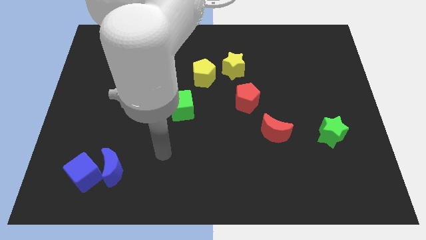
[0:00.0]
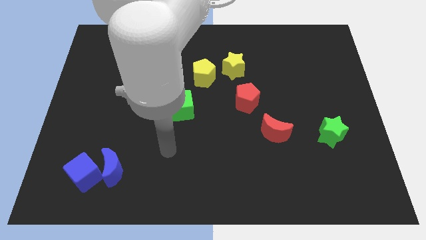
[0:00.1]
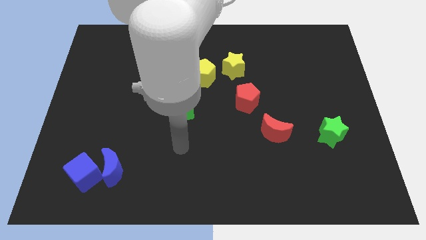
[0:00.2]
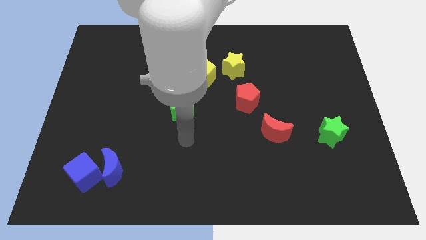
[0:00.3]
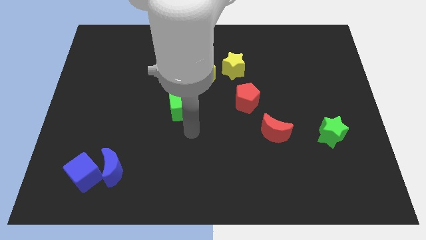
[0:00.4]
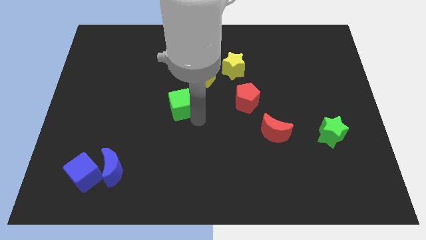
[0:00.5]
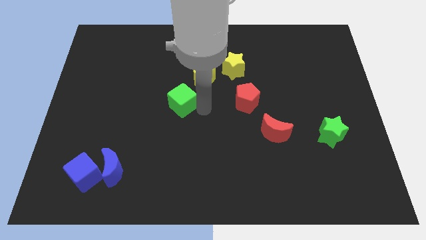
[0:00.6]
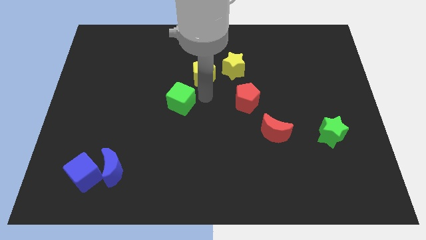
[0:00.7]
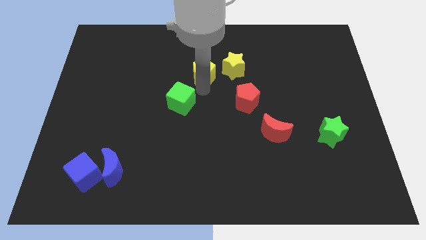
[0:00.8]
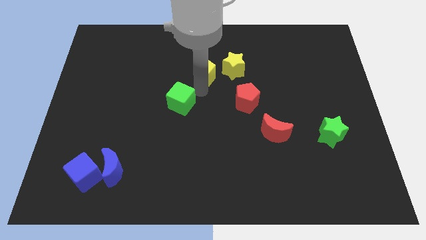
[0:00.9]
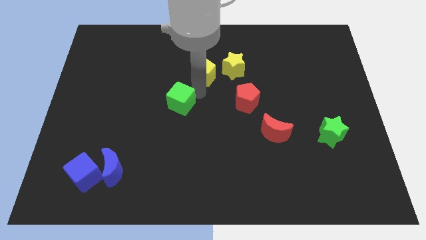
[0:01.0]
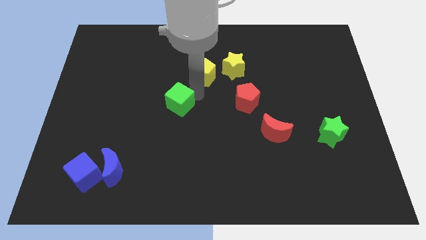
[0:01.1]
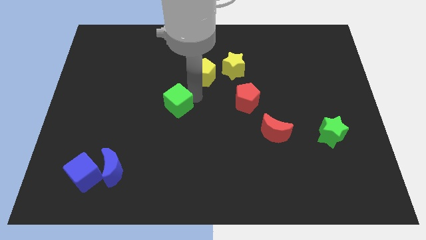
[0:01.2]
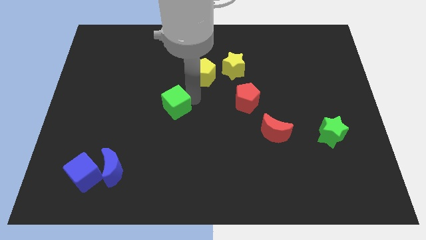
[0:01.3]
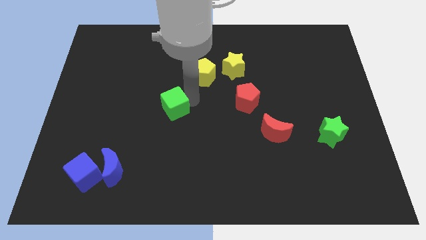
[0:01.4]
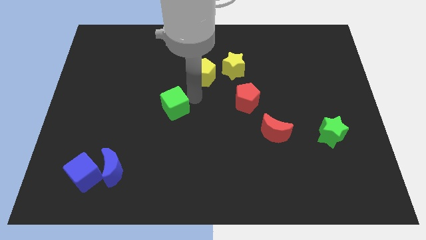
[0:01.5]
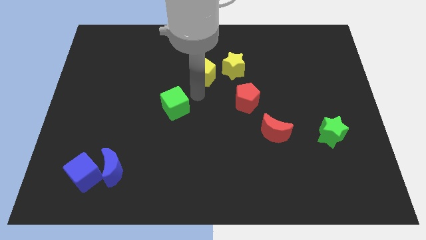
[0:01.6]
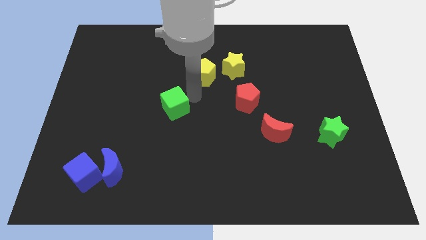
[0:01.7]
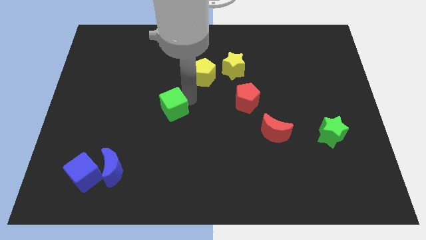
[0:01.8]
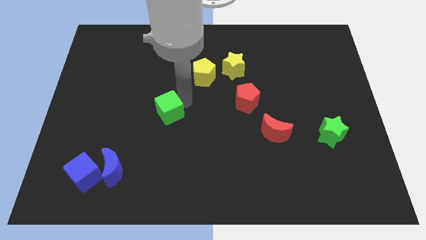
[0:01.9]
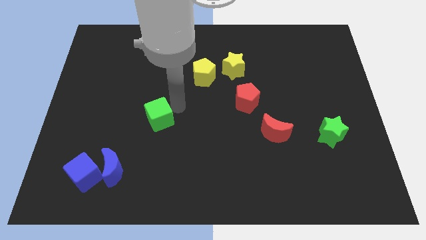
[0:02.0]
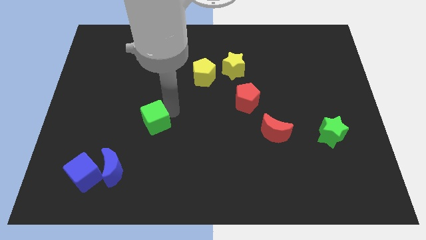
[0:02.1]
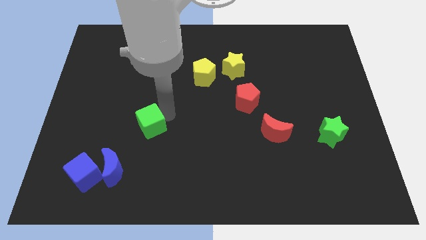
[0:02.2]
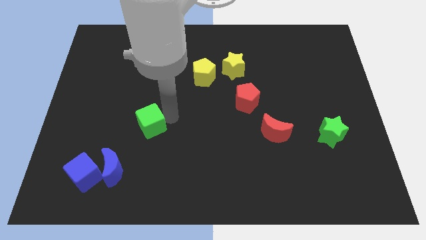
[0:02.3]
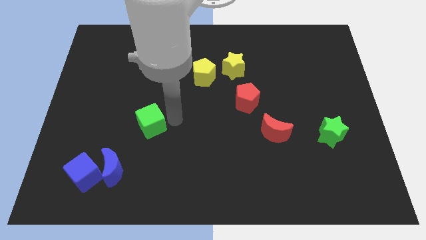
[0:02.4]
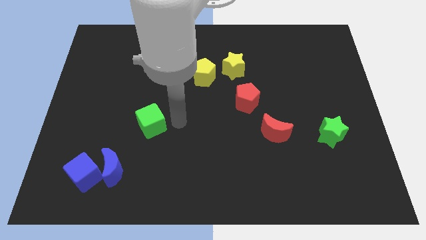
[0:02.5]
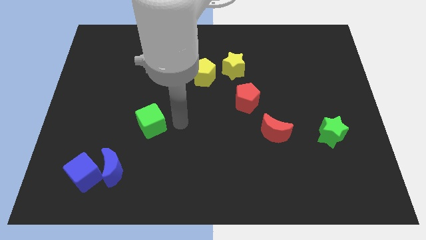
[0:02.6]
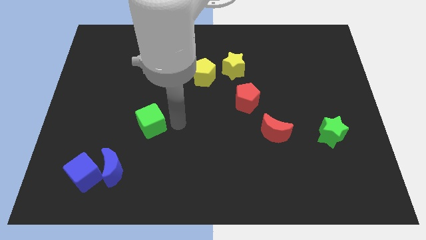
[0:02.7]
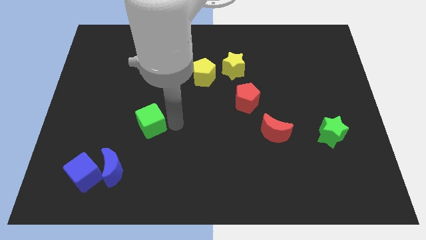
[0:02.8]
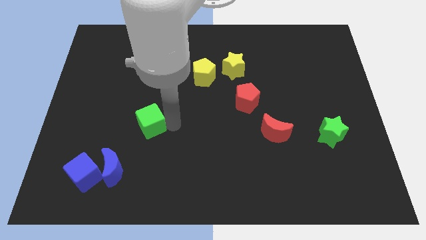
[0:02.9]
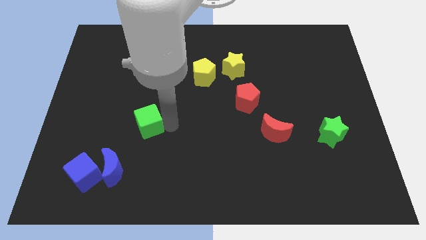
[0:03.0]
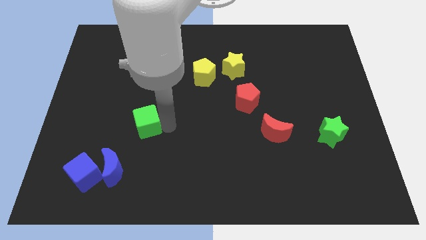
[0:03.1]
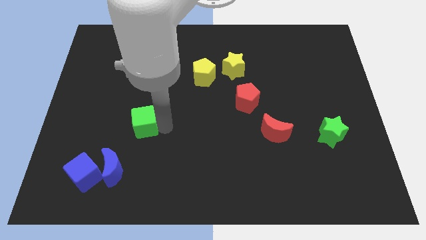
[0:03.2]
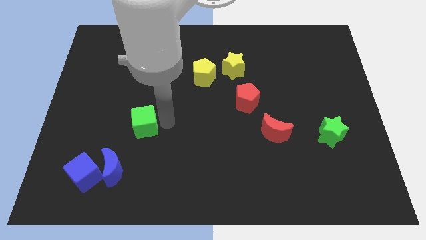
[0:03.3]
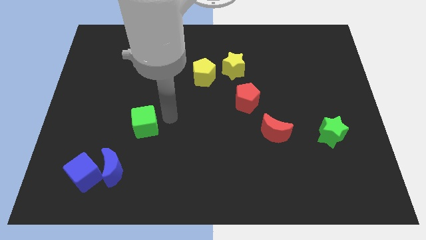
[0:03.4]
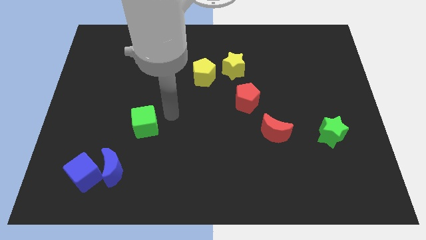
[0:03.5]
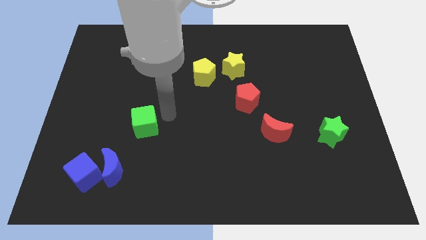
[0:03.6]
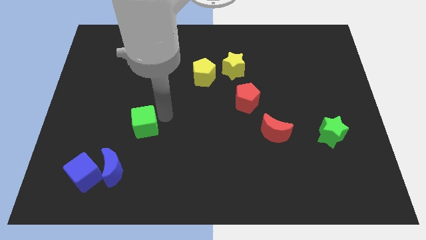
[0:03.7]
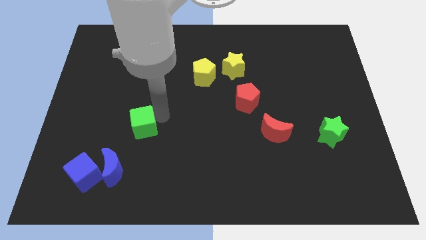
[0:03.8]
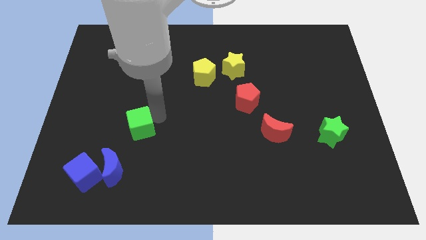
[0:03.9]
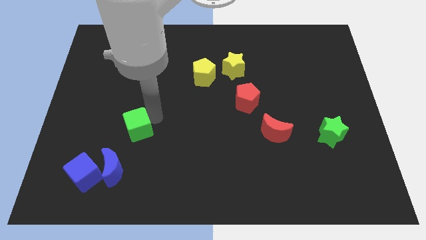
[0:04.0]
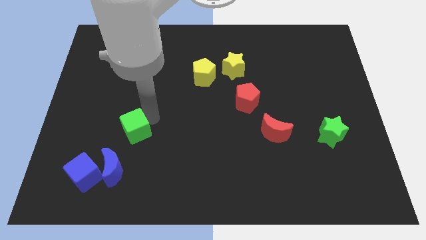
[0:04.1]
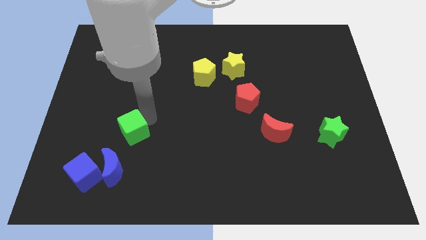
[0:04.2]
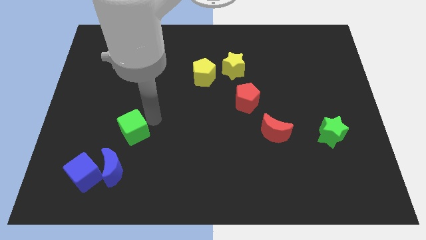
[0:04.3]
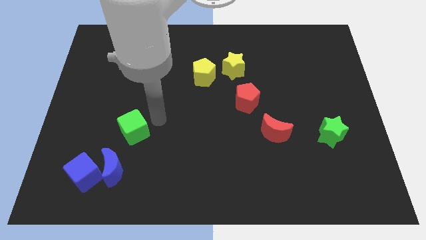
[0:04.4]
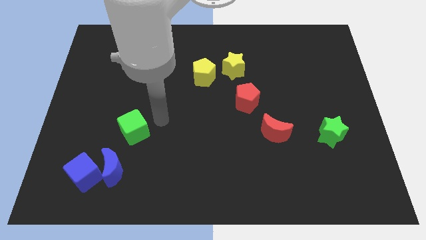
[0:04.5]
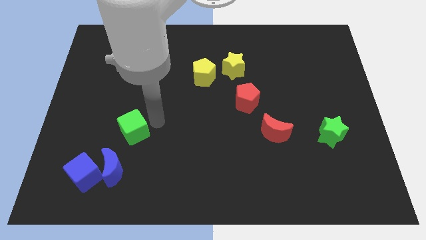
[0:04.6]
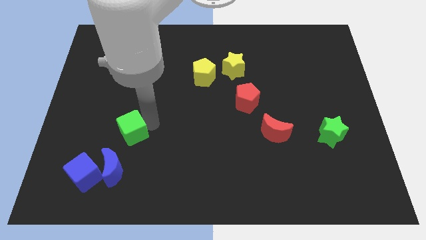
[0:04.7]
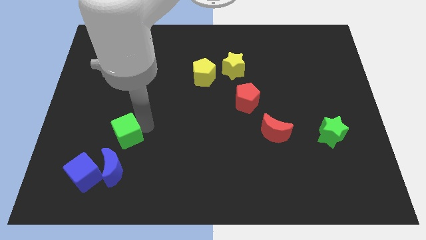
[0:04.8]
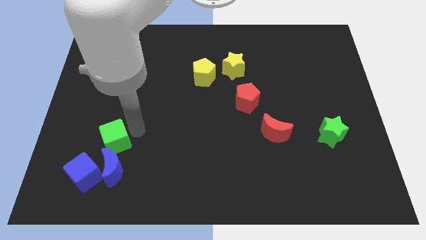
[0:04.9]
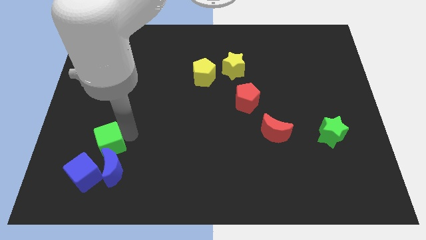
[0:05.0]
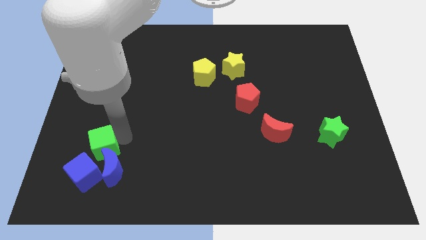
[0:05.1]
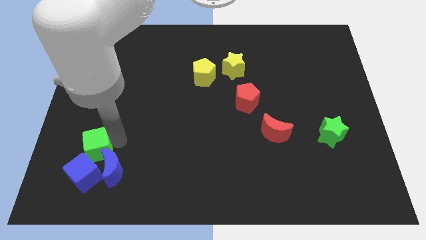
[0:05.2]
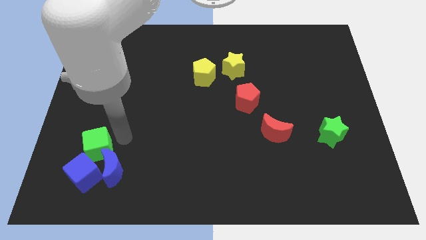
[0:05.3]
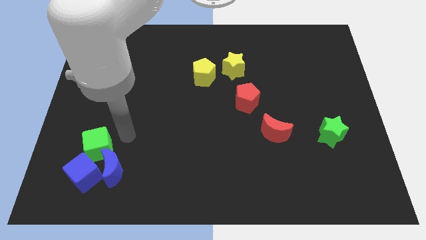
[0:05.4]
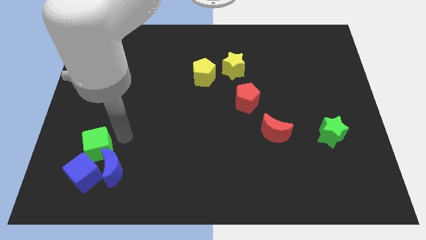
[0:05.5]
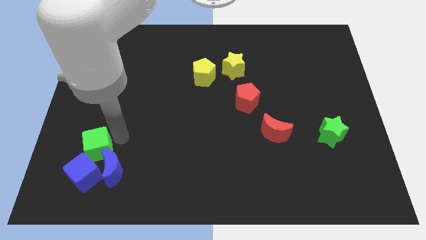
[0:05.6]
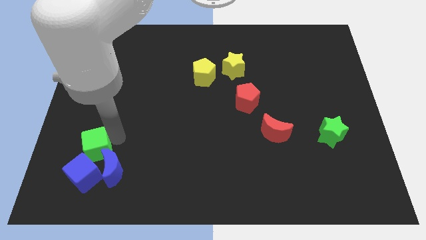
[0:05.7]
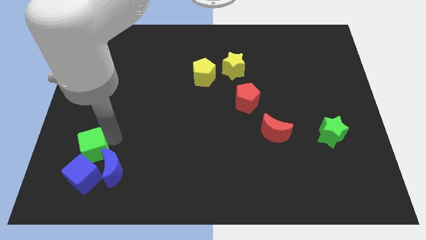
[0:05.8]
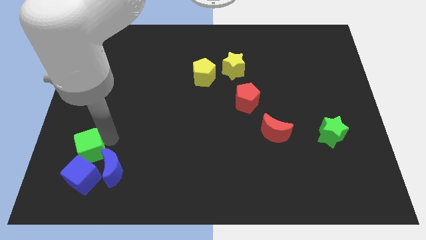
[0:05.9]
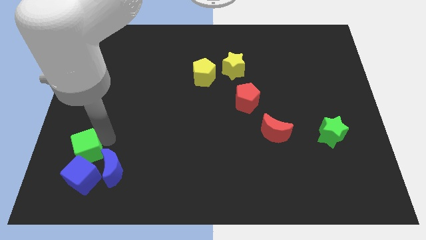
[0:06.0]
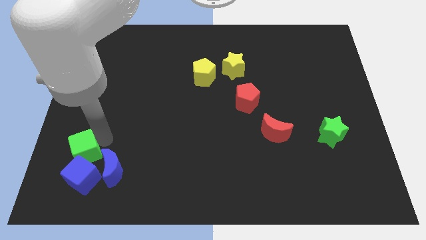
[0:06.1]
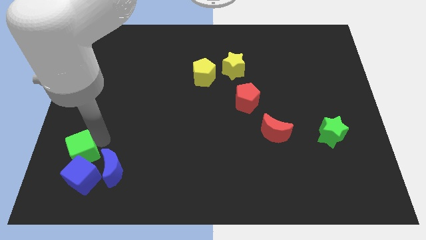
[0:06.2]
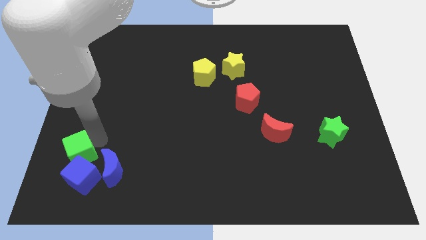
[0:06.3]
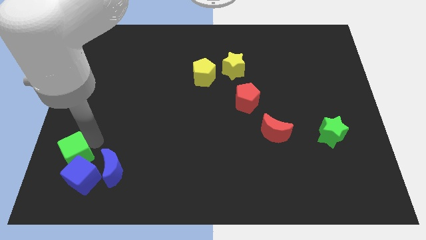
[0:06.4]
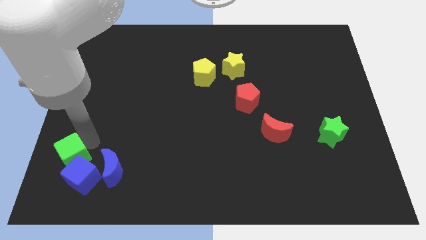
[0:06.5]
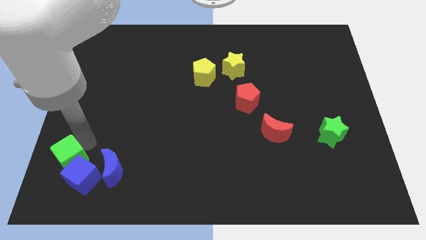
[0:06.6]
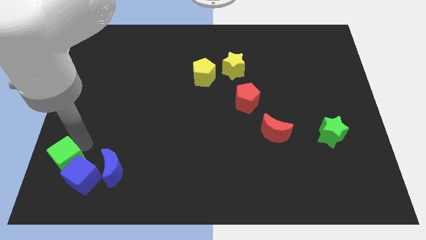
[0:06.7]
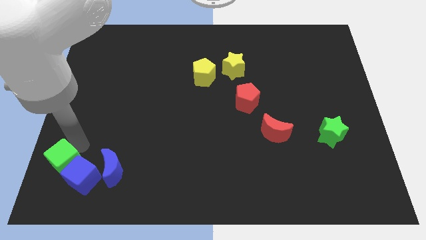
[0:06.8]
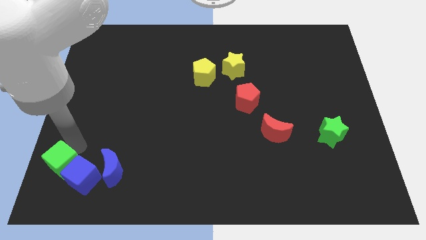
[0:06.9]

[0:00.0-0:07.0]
slide the green cube to the bottom left corner
